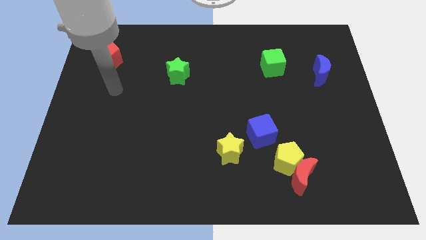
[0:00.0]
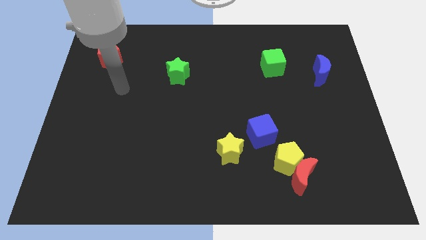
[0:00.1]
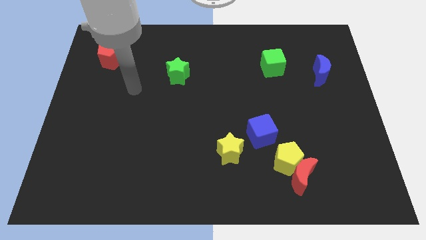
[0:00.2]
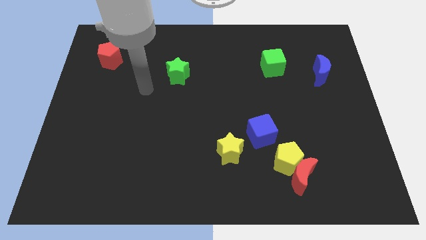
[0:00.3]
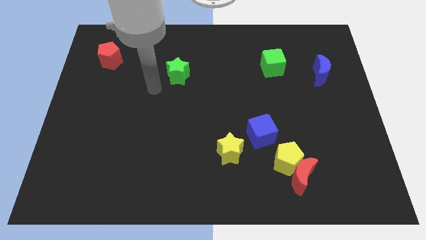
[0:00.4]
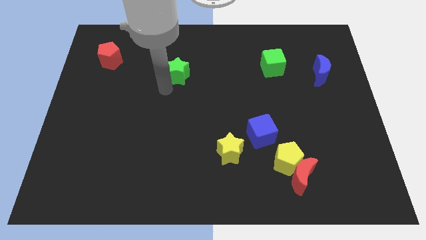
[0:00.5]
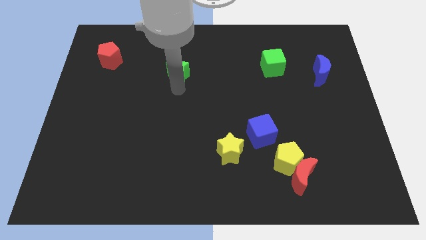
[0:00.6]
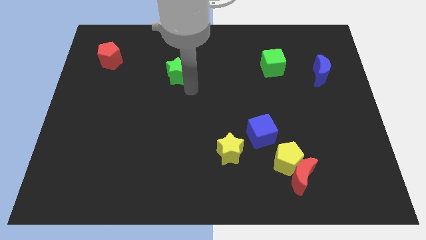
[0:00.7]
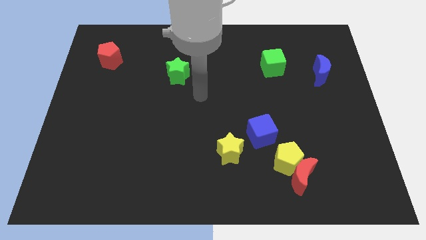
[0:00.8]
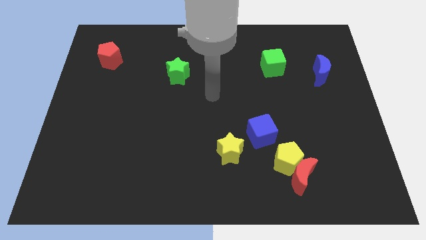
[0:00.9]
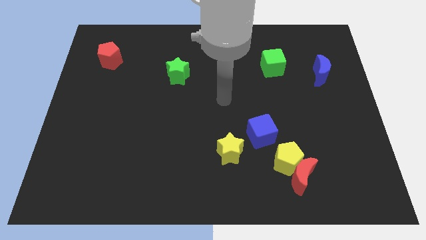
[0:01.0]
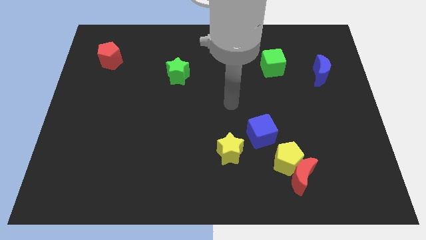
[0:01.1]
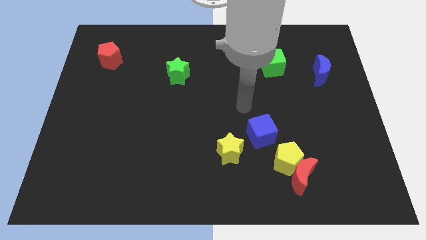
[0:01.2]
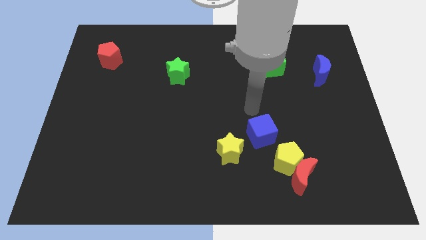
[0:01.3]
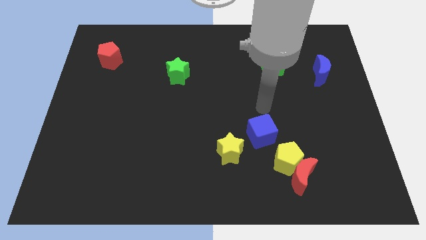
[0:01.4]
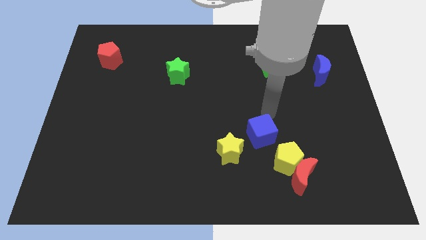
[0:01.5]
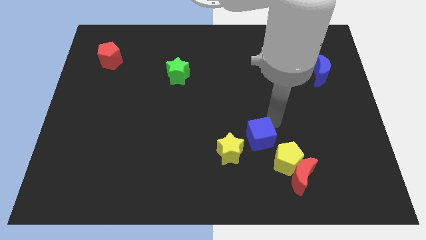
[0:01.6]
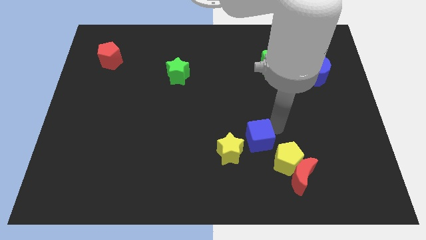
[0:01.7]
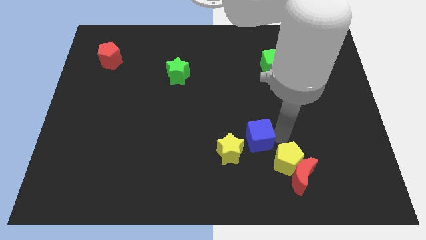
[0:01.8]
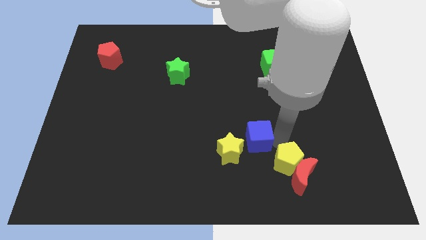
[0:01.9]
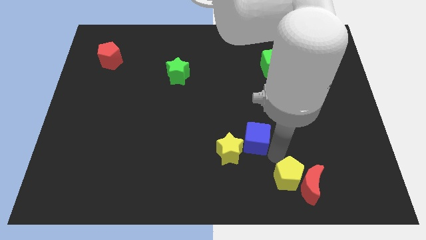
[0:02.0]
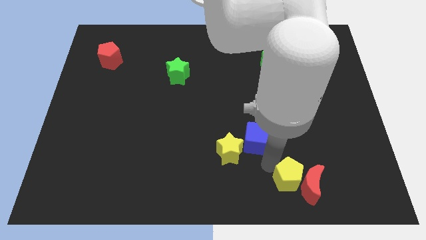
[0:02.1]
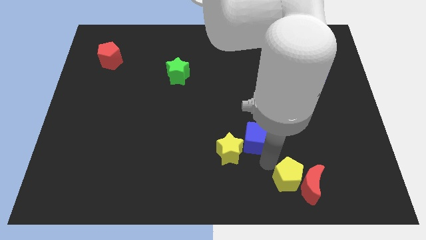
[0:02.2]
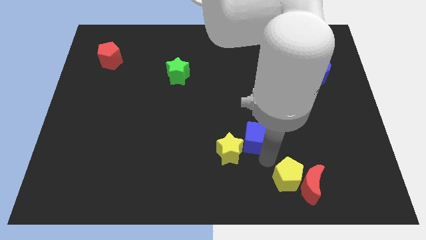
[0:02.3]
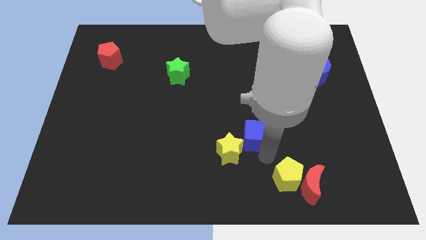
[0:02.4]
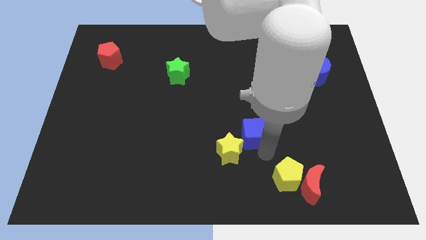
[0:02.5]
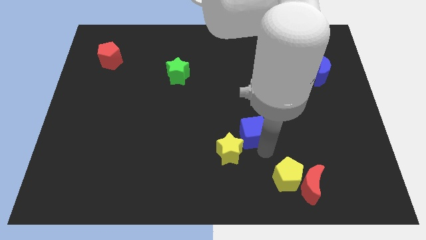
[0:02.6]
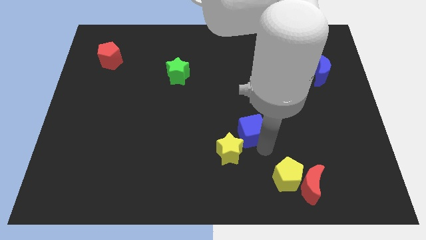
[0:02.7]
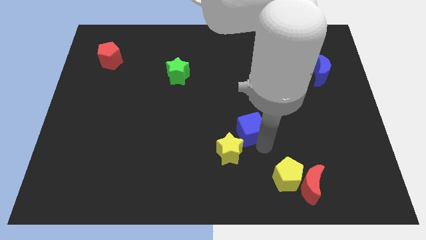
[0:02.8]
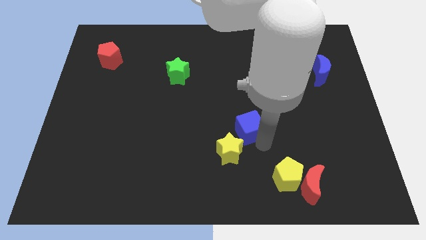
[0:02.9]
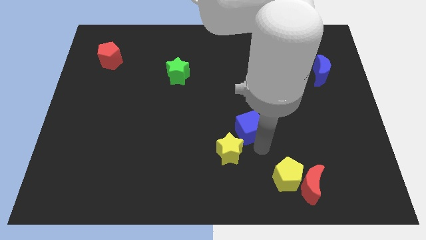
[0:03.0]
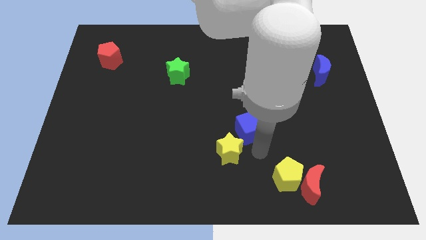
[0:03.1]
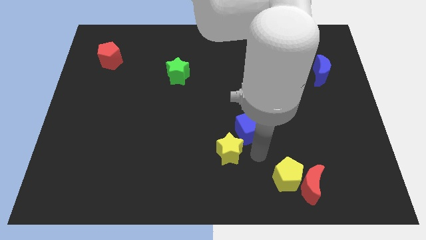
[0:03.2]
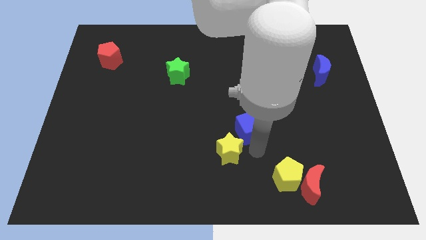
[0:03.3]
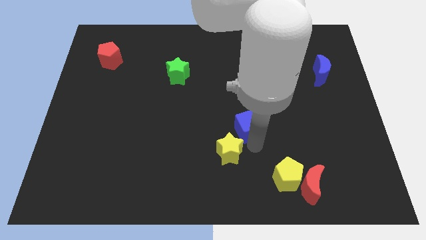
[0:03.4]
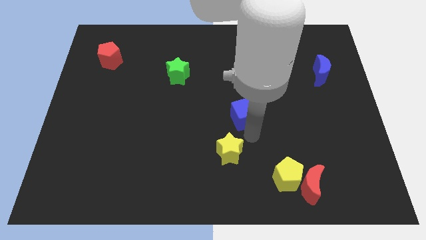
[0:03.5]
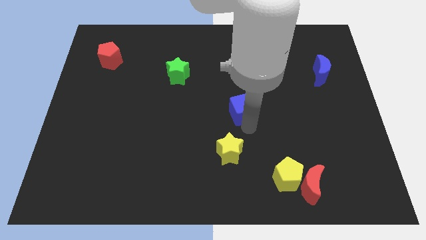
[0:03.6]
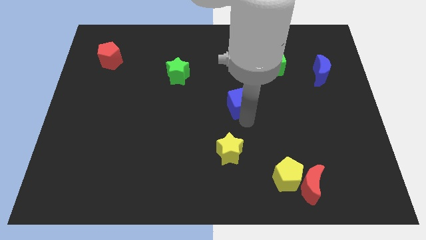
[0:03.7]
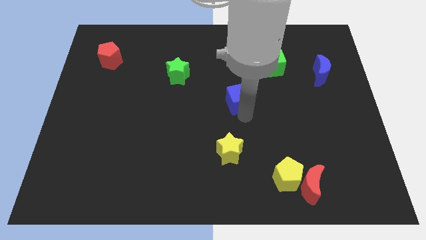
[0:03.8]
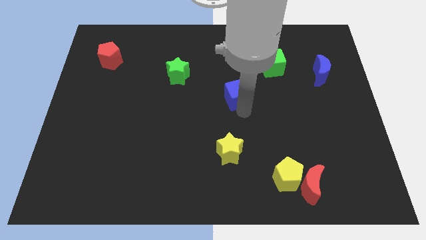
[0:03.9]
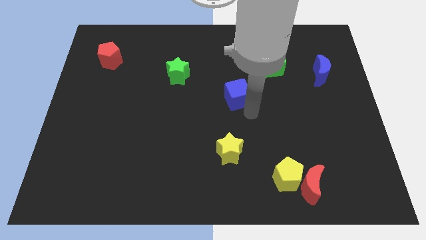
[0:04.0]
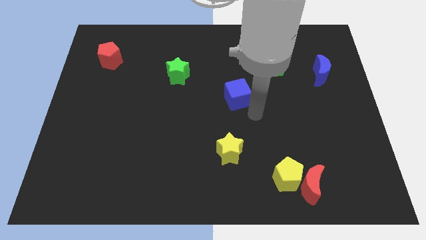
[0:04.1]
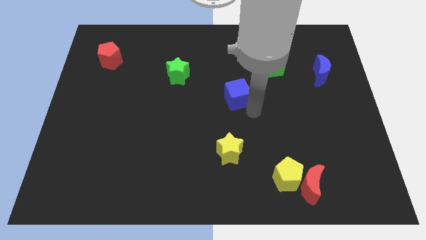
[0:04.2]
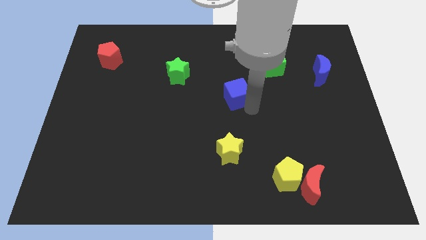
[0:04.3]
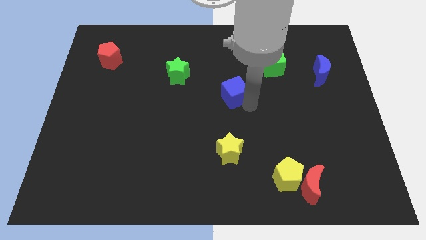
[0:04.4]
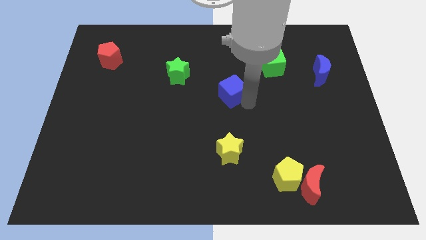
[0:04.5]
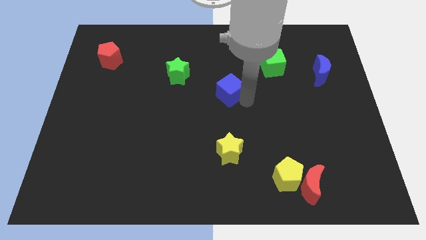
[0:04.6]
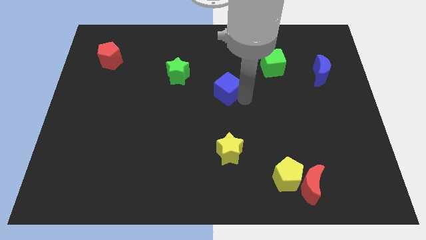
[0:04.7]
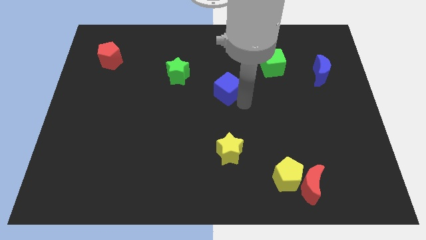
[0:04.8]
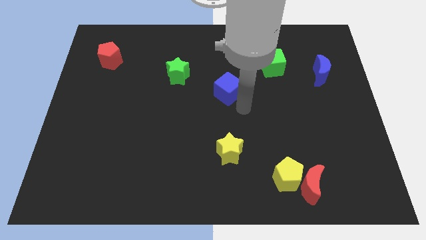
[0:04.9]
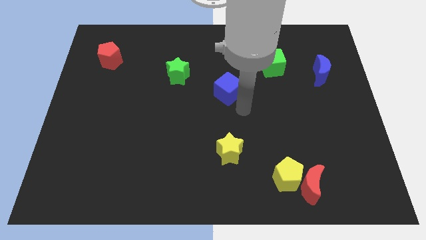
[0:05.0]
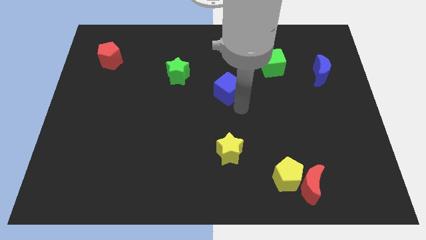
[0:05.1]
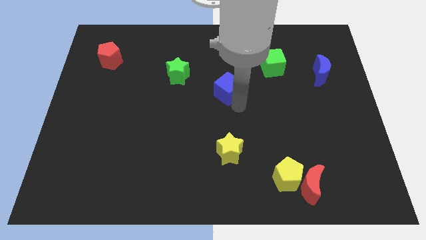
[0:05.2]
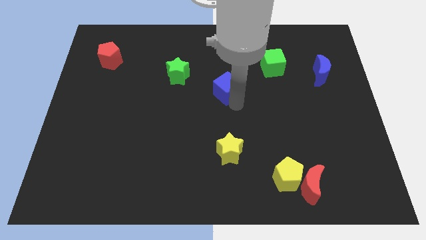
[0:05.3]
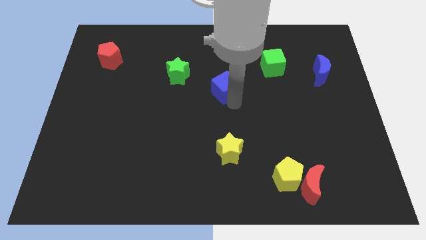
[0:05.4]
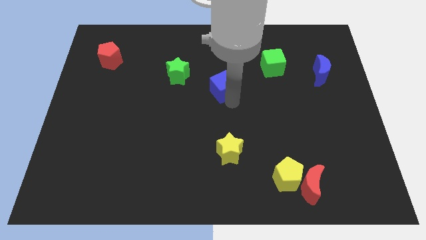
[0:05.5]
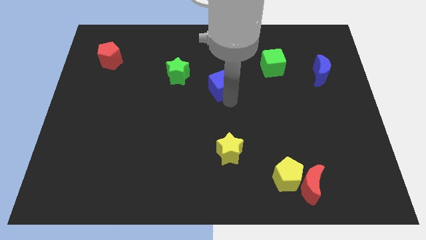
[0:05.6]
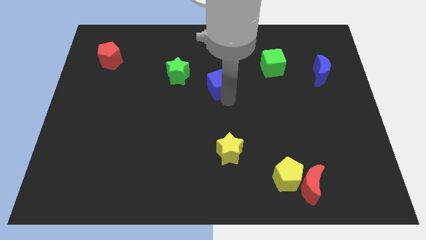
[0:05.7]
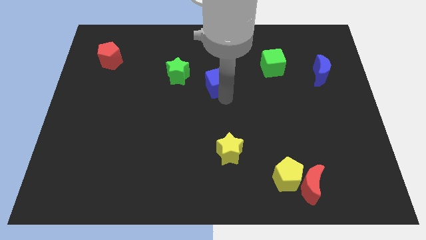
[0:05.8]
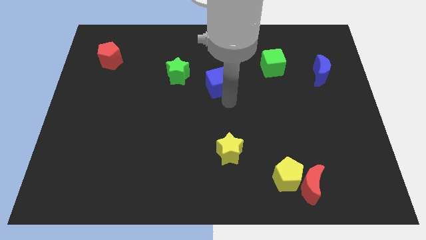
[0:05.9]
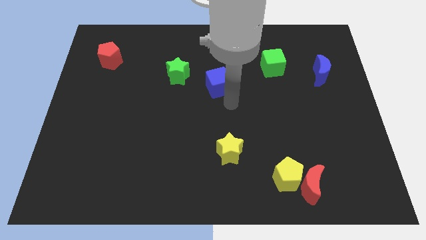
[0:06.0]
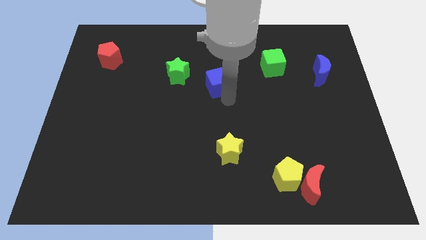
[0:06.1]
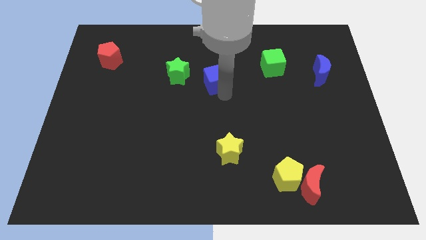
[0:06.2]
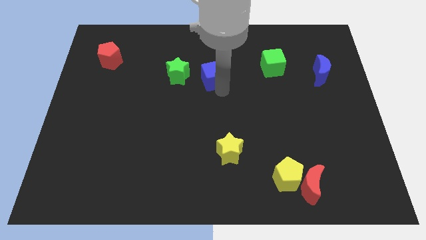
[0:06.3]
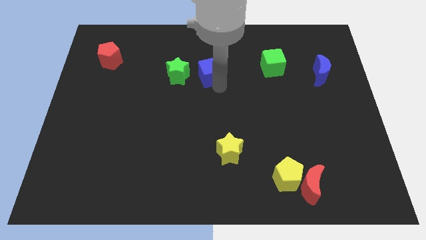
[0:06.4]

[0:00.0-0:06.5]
push the blue cube diagonally upwards and left

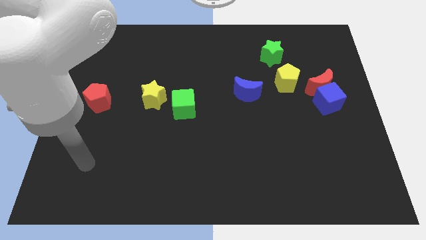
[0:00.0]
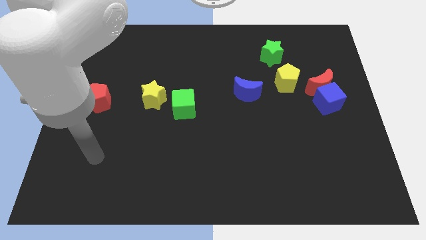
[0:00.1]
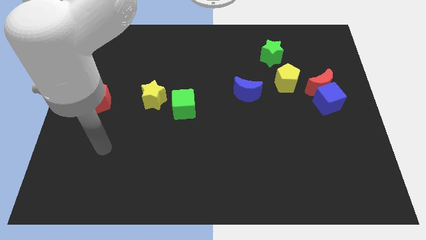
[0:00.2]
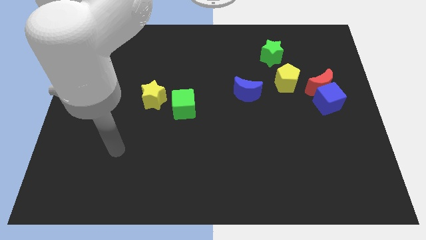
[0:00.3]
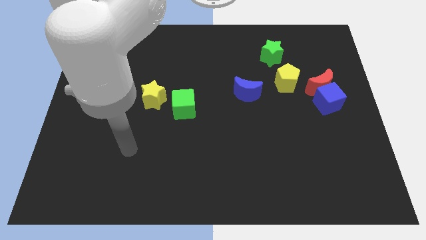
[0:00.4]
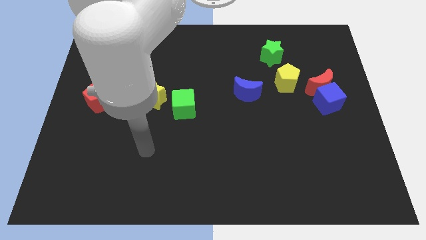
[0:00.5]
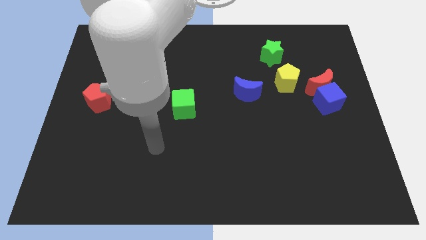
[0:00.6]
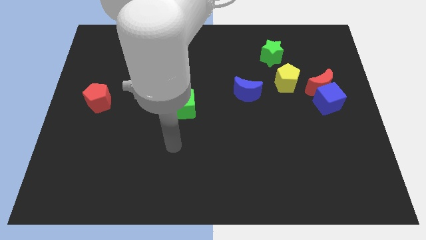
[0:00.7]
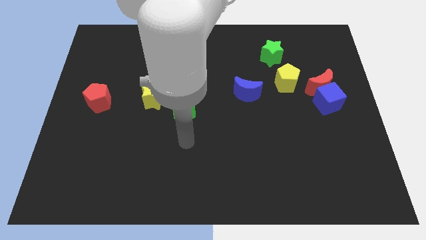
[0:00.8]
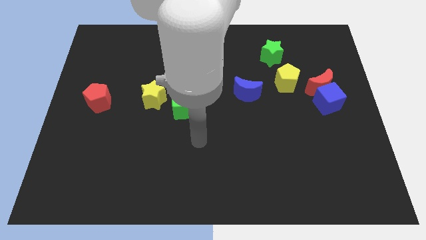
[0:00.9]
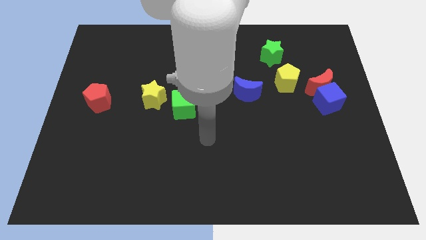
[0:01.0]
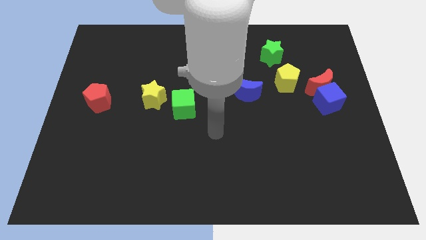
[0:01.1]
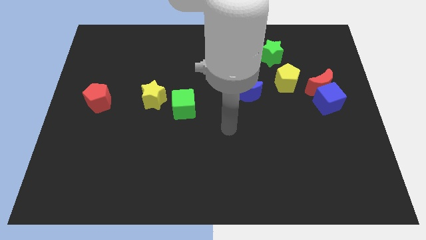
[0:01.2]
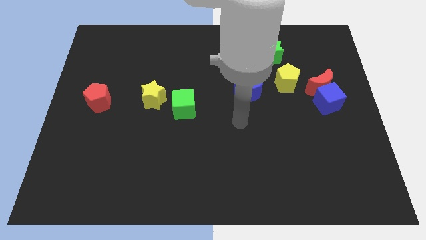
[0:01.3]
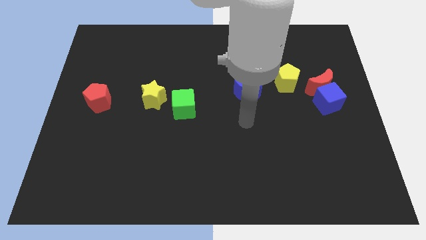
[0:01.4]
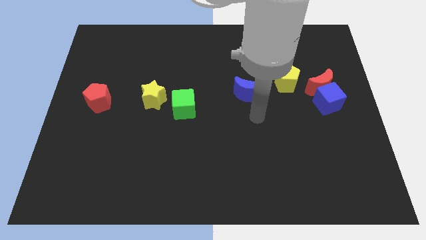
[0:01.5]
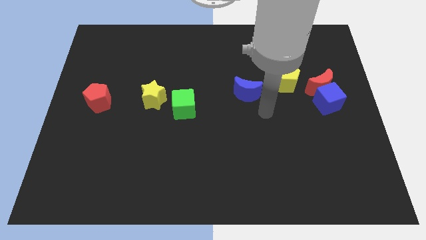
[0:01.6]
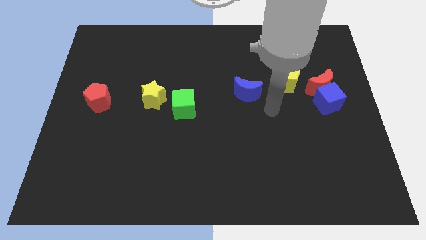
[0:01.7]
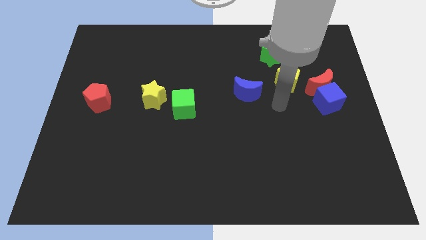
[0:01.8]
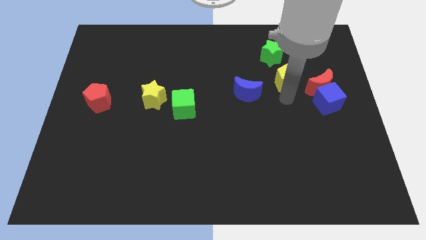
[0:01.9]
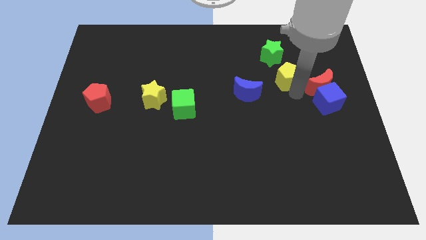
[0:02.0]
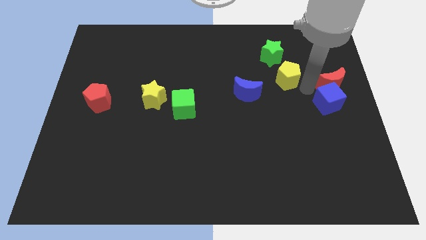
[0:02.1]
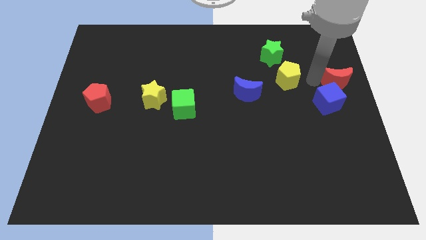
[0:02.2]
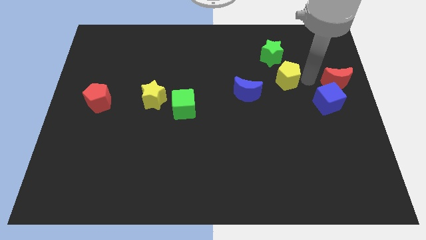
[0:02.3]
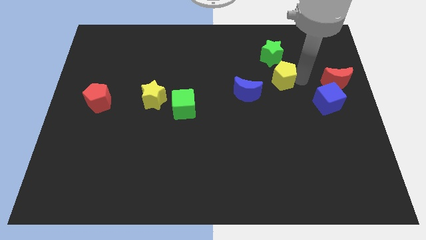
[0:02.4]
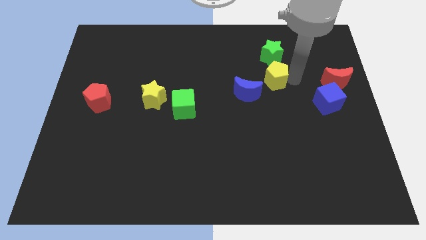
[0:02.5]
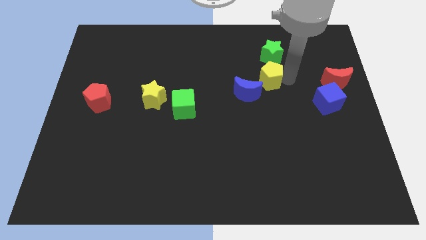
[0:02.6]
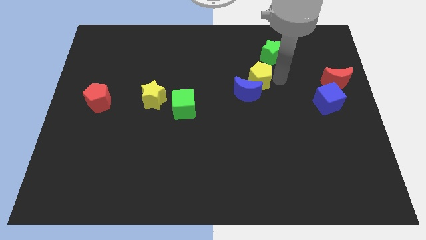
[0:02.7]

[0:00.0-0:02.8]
push the yellow pentagon left a bit
